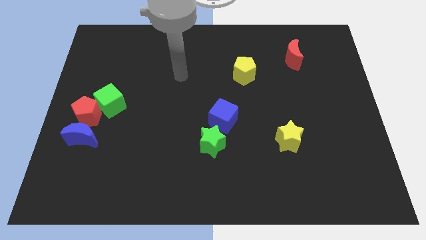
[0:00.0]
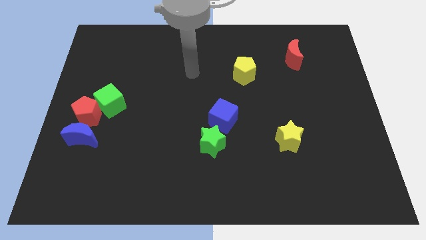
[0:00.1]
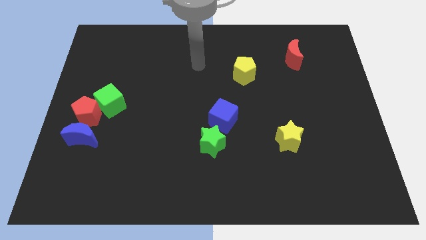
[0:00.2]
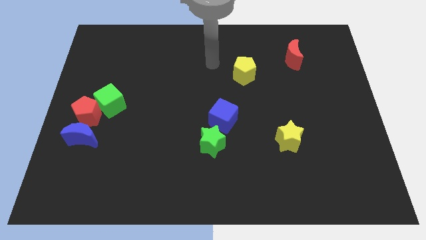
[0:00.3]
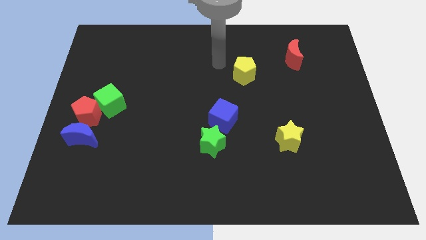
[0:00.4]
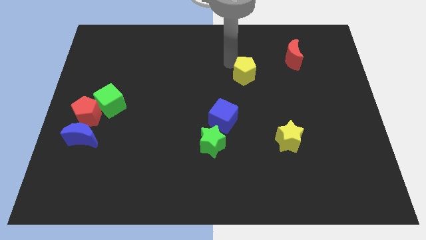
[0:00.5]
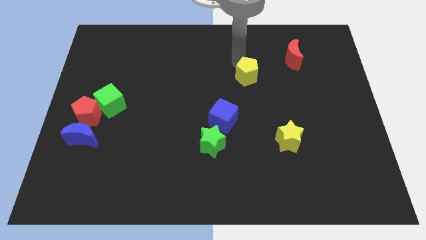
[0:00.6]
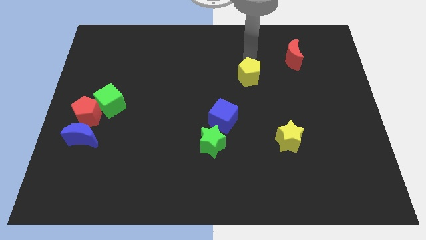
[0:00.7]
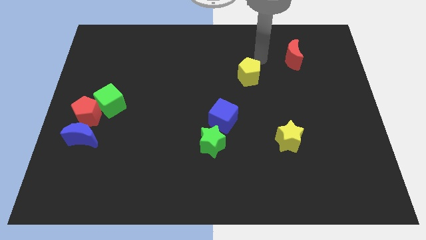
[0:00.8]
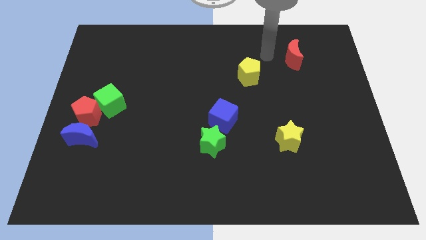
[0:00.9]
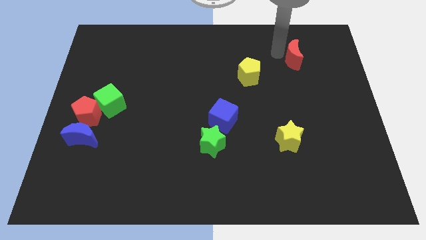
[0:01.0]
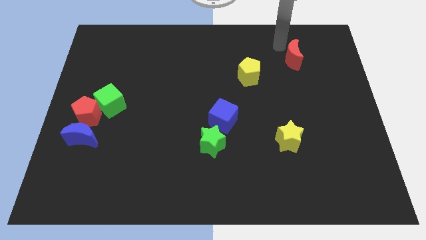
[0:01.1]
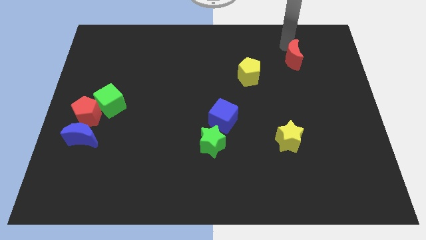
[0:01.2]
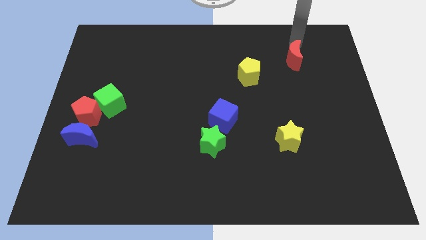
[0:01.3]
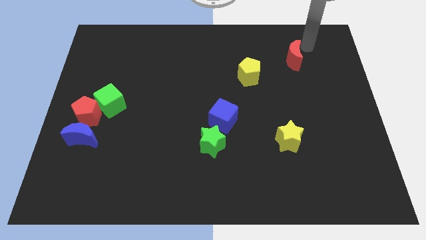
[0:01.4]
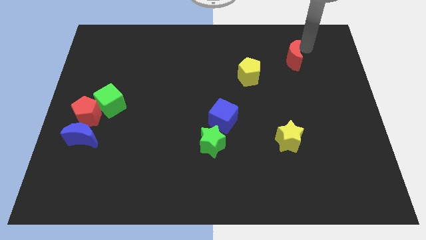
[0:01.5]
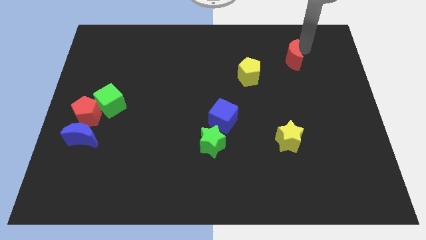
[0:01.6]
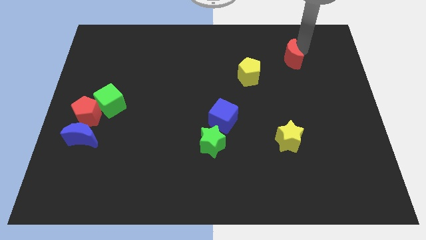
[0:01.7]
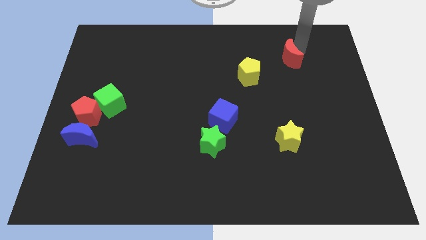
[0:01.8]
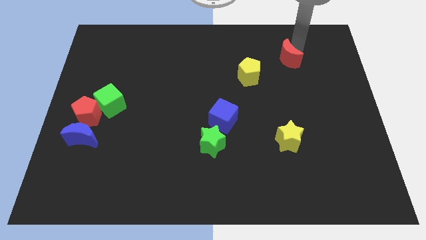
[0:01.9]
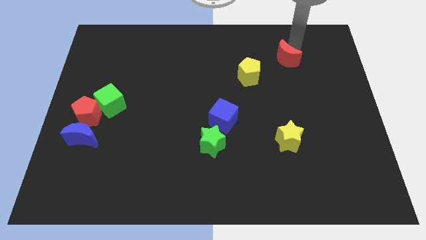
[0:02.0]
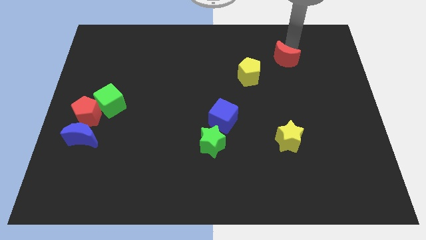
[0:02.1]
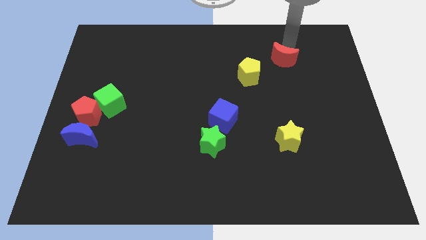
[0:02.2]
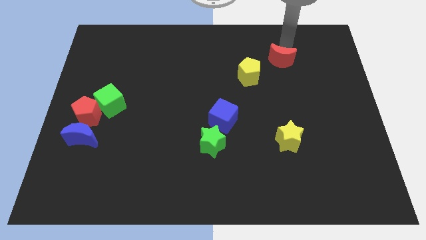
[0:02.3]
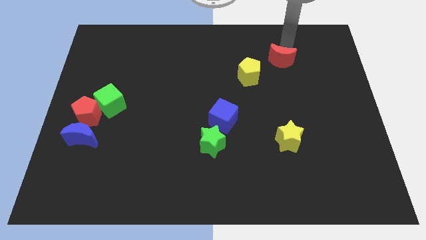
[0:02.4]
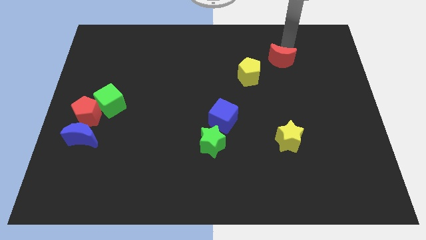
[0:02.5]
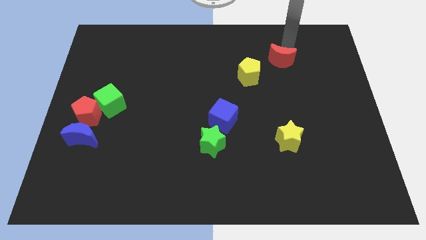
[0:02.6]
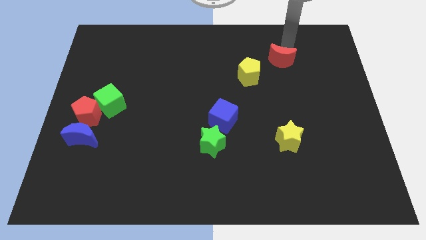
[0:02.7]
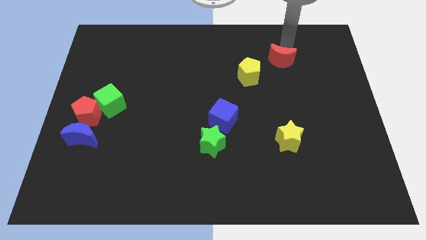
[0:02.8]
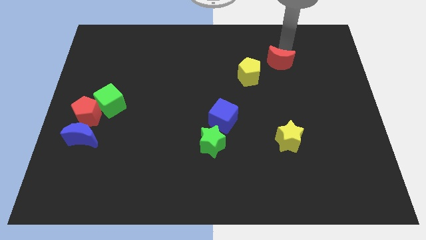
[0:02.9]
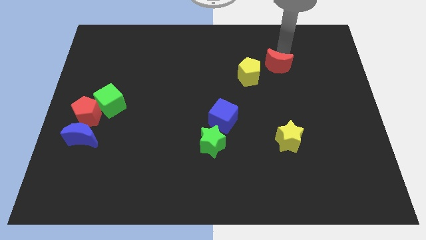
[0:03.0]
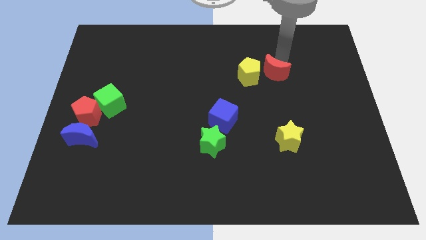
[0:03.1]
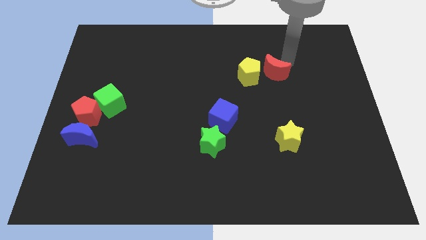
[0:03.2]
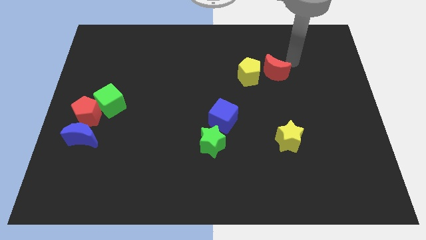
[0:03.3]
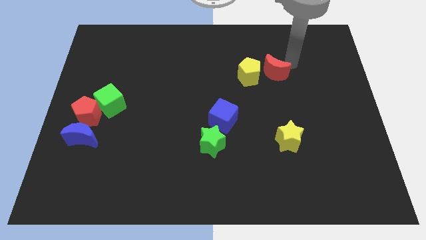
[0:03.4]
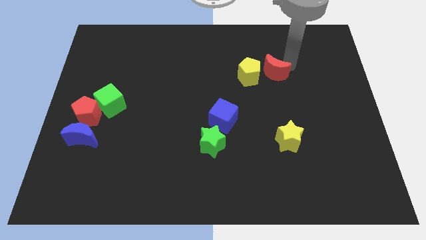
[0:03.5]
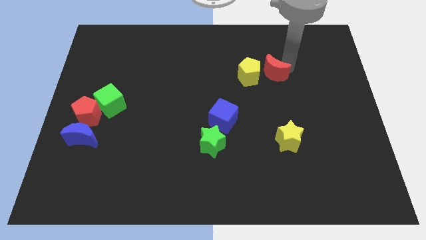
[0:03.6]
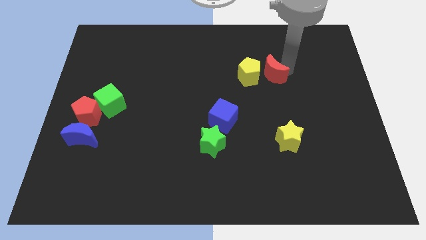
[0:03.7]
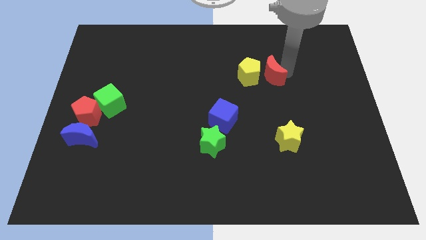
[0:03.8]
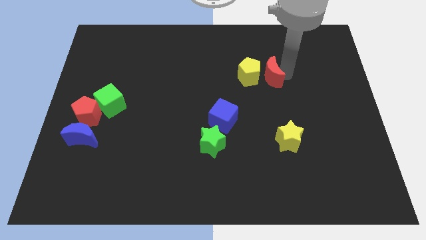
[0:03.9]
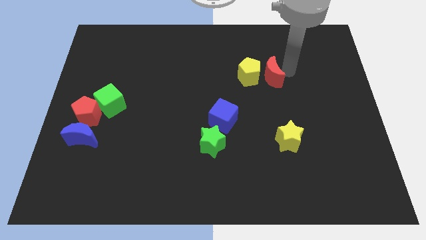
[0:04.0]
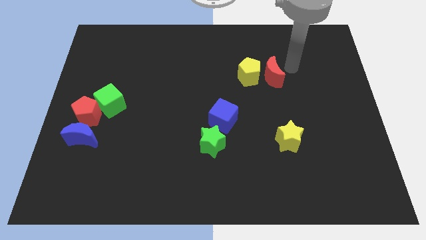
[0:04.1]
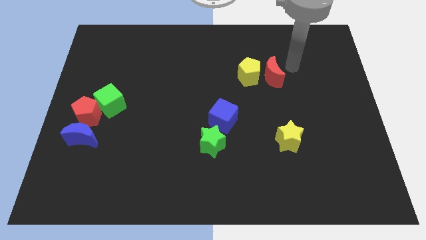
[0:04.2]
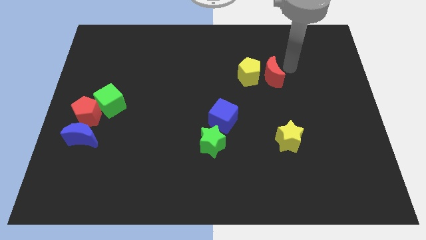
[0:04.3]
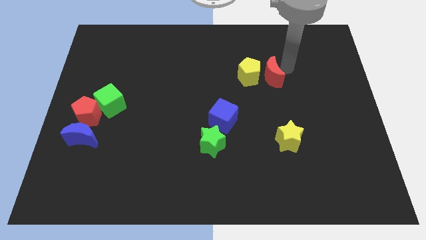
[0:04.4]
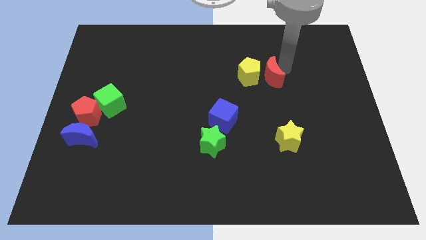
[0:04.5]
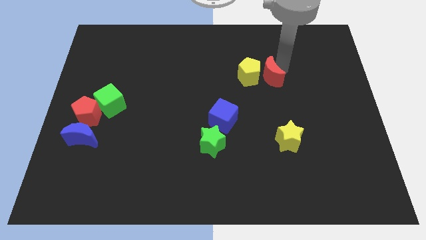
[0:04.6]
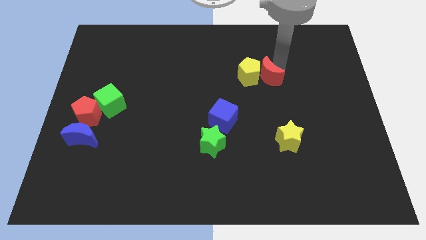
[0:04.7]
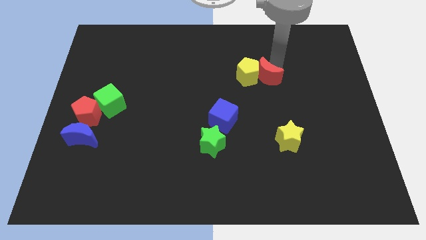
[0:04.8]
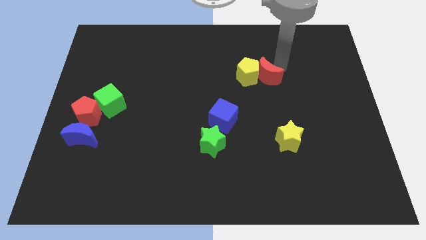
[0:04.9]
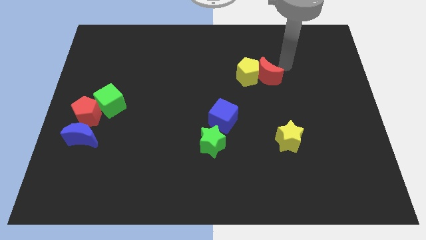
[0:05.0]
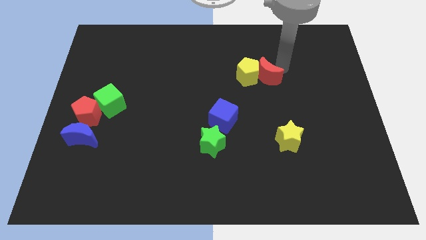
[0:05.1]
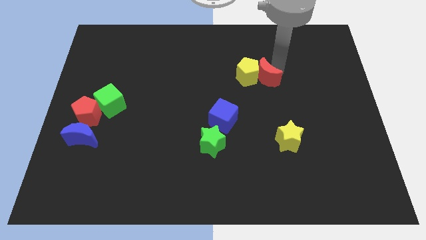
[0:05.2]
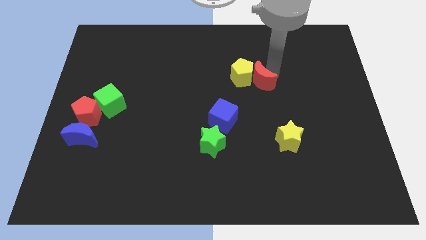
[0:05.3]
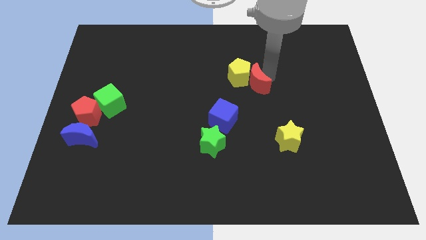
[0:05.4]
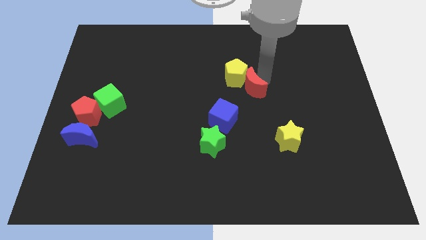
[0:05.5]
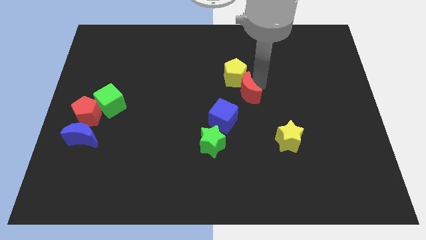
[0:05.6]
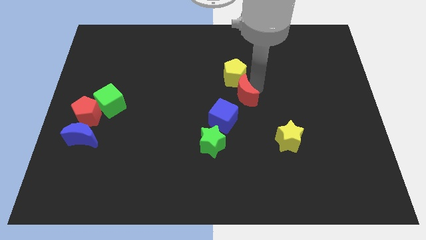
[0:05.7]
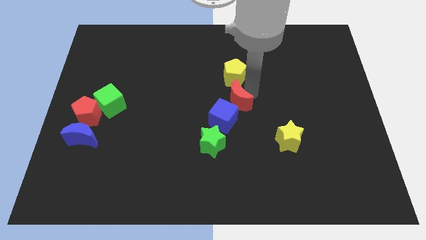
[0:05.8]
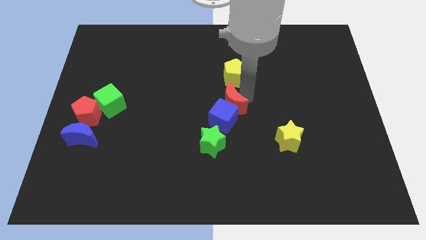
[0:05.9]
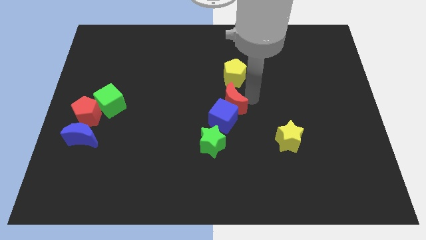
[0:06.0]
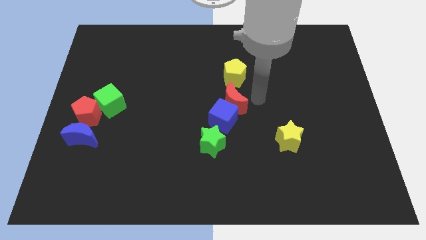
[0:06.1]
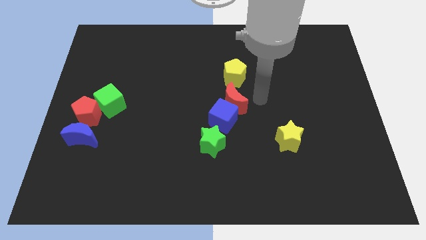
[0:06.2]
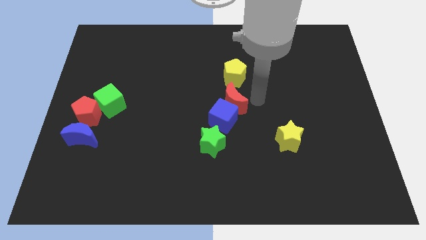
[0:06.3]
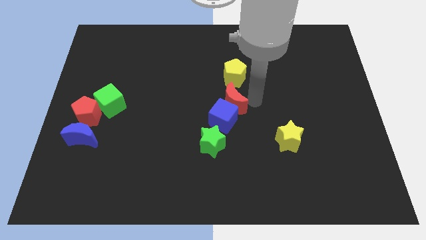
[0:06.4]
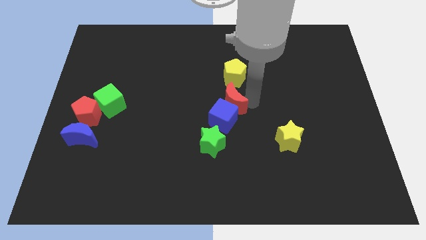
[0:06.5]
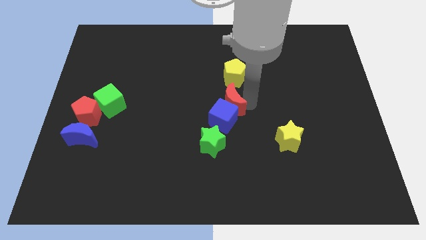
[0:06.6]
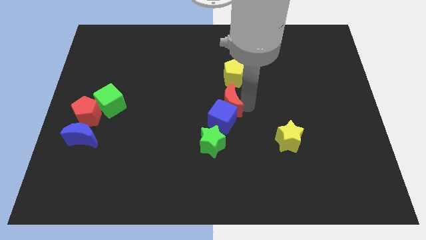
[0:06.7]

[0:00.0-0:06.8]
push the red moon to the top of the green star

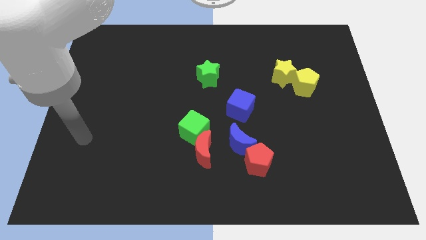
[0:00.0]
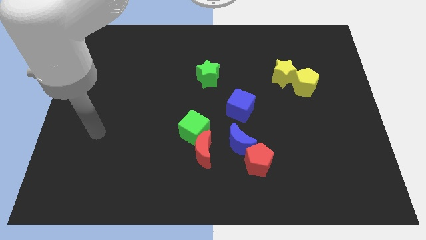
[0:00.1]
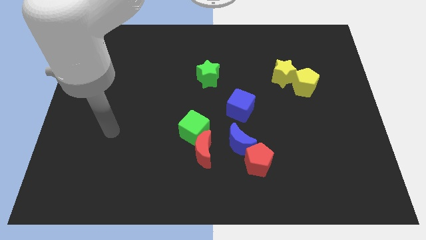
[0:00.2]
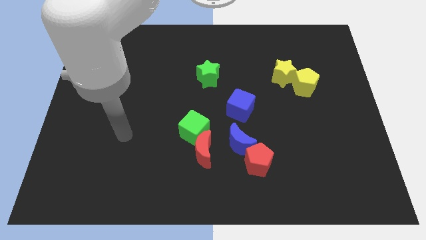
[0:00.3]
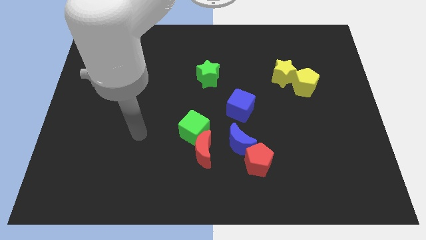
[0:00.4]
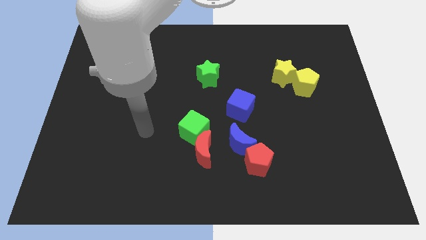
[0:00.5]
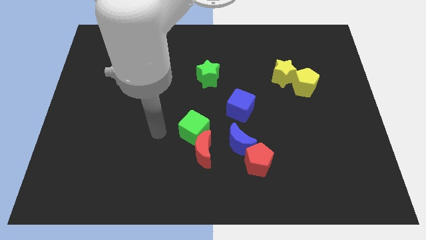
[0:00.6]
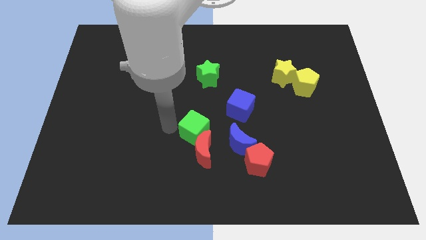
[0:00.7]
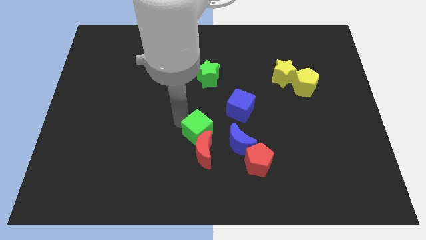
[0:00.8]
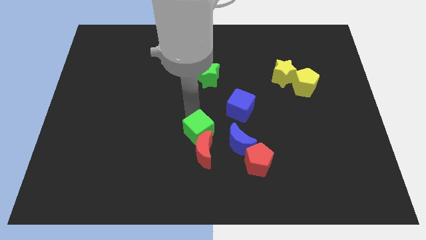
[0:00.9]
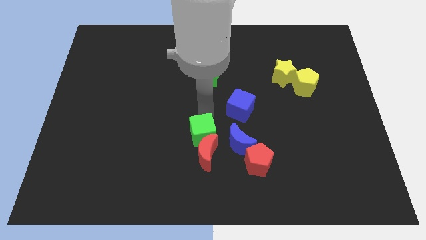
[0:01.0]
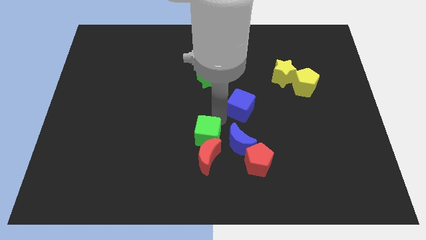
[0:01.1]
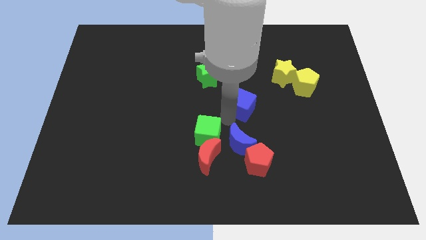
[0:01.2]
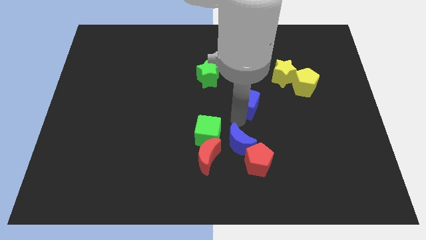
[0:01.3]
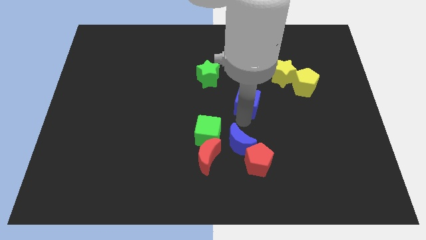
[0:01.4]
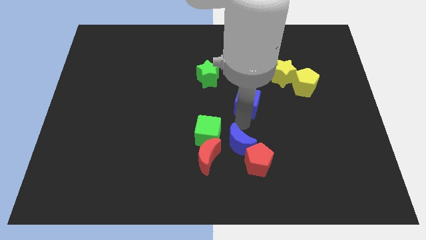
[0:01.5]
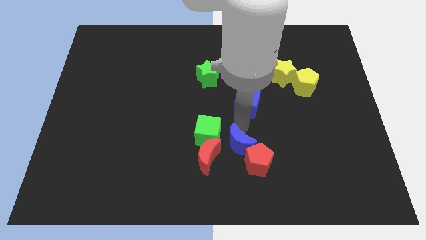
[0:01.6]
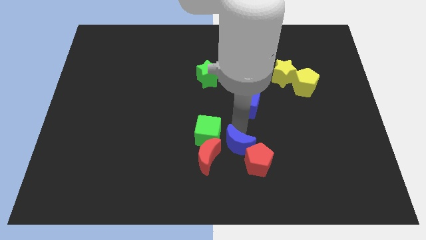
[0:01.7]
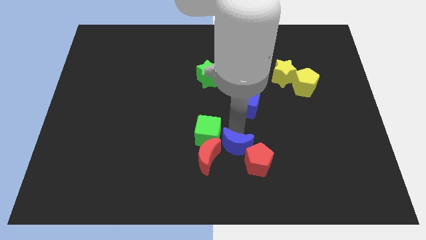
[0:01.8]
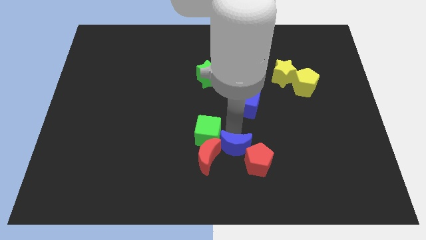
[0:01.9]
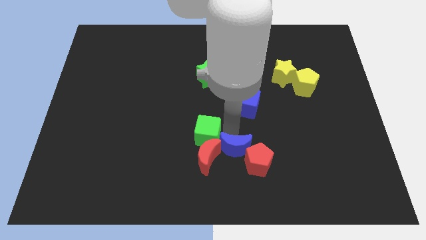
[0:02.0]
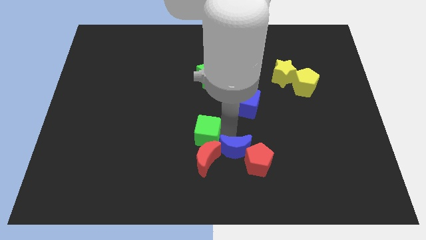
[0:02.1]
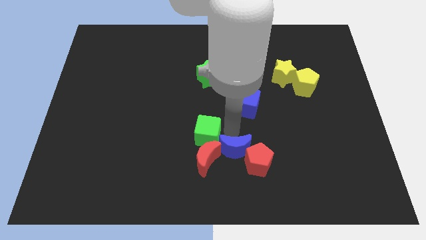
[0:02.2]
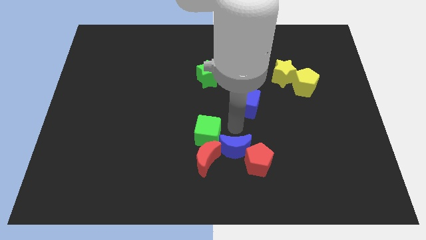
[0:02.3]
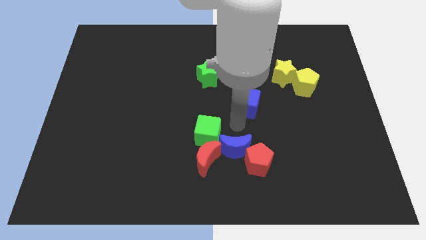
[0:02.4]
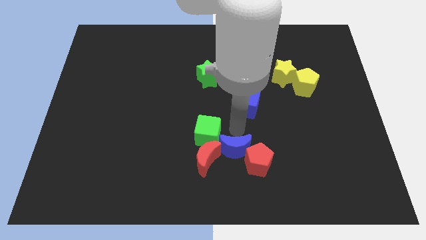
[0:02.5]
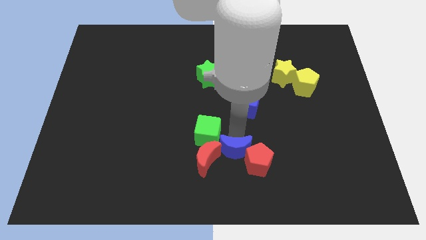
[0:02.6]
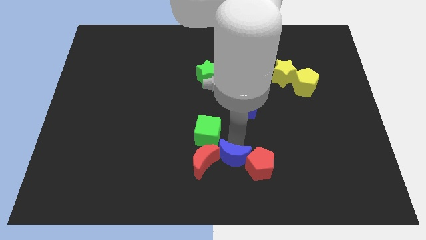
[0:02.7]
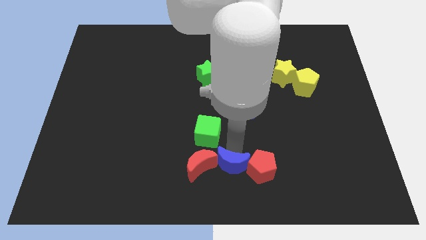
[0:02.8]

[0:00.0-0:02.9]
move the blue moon to the bottom right of the red moon
